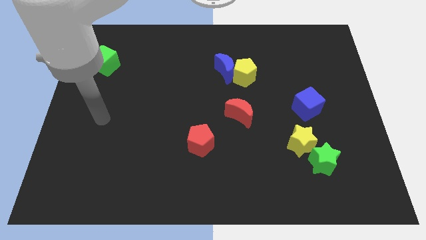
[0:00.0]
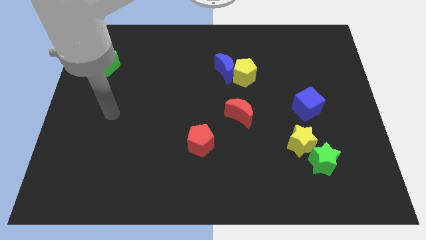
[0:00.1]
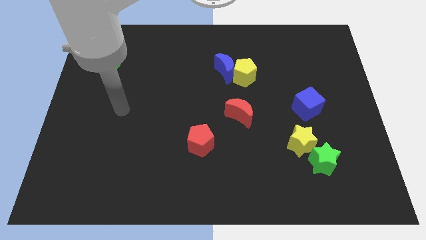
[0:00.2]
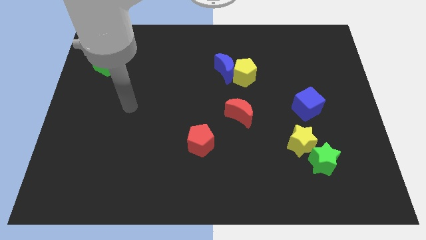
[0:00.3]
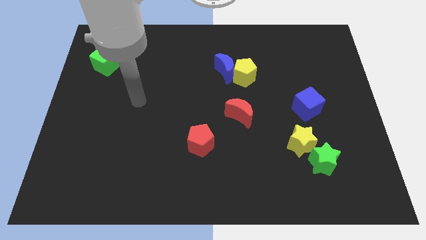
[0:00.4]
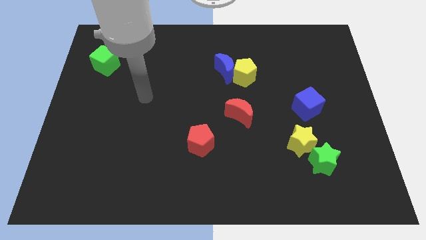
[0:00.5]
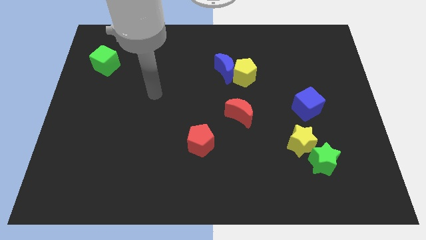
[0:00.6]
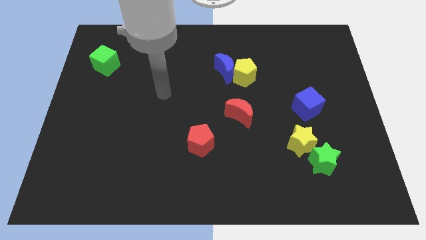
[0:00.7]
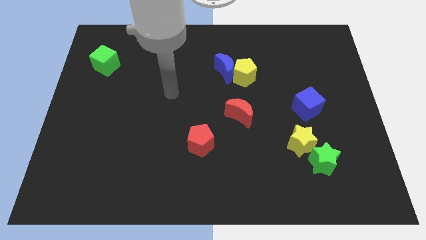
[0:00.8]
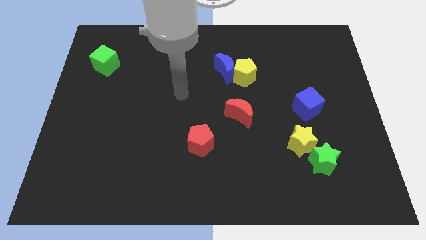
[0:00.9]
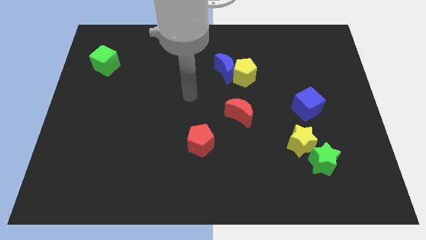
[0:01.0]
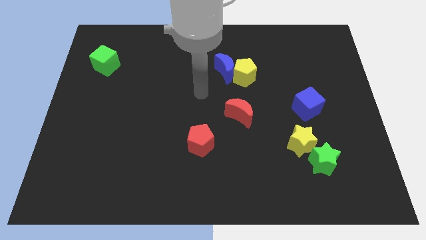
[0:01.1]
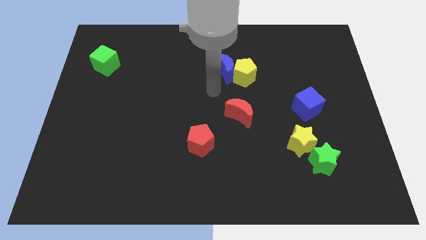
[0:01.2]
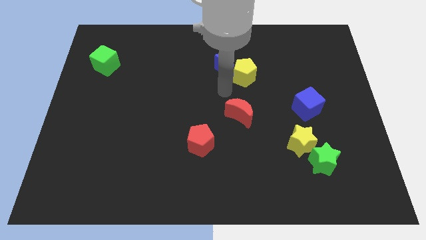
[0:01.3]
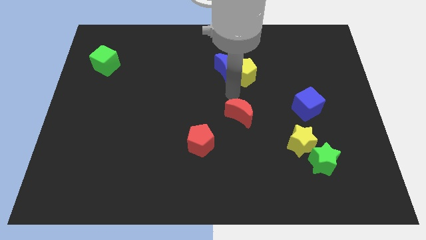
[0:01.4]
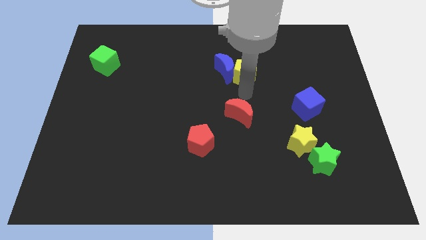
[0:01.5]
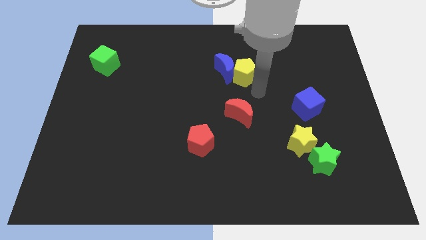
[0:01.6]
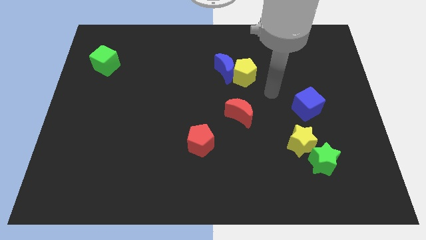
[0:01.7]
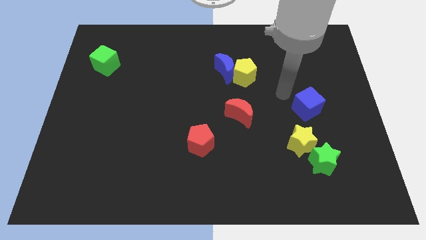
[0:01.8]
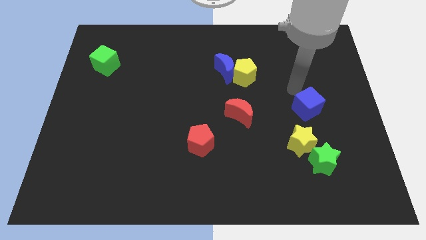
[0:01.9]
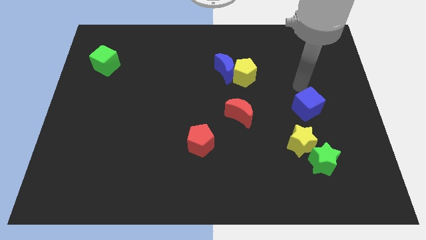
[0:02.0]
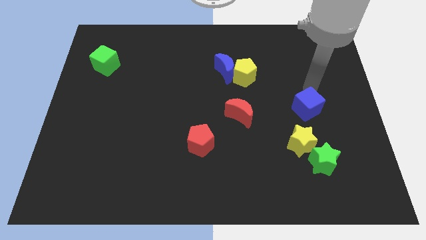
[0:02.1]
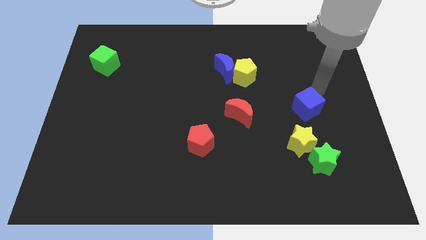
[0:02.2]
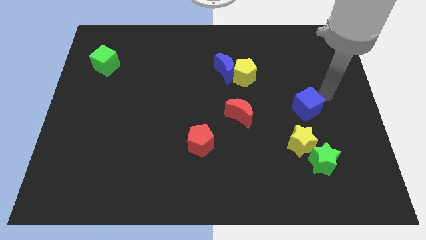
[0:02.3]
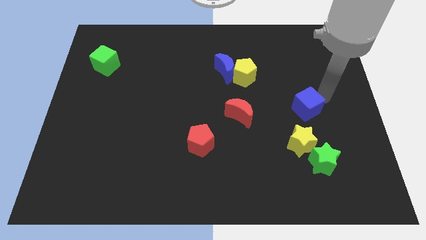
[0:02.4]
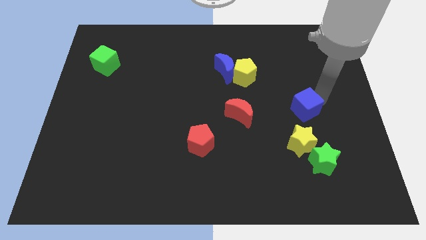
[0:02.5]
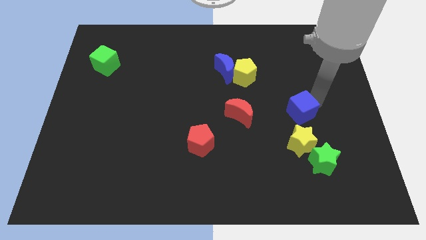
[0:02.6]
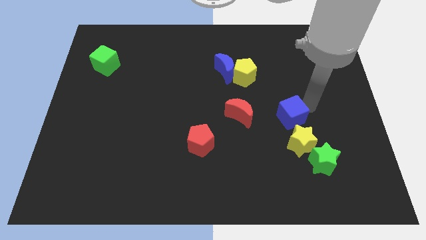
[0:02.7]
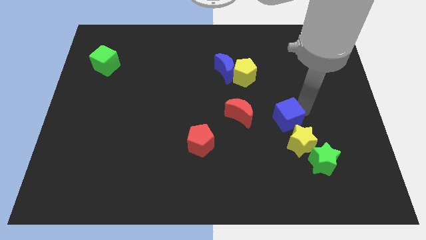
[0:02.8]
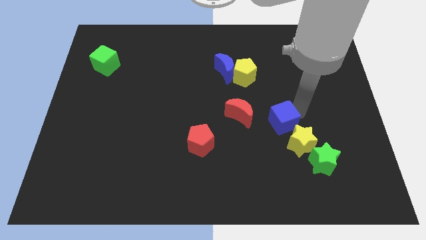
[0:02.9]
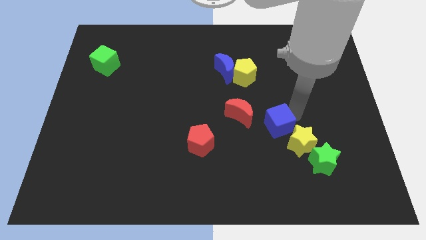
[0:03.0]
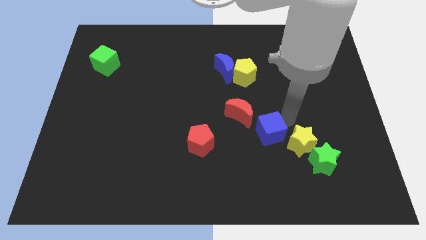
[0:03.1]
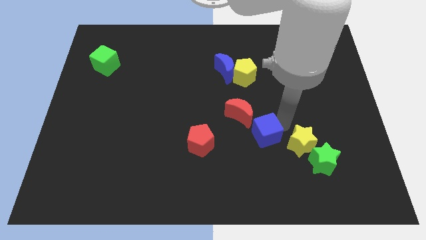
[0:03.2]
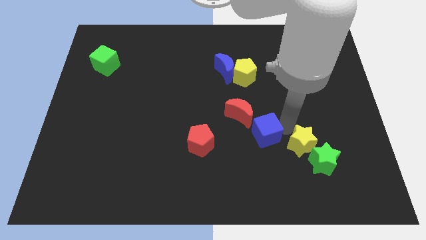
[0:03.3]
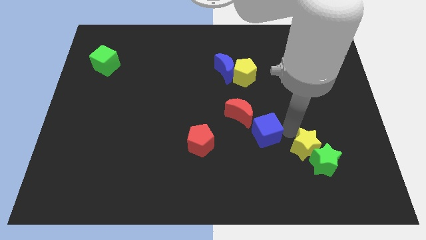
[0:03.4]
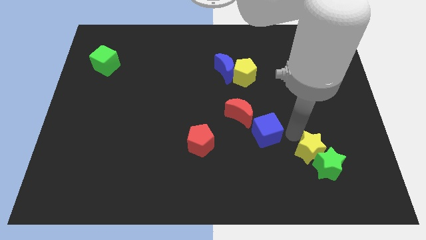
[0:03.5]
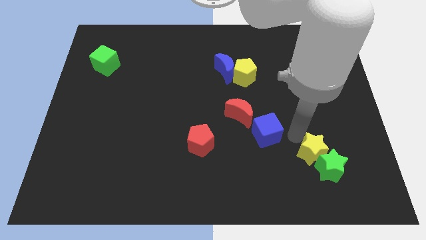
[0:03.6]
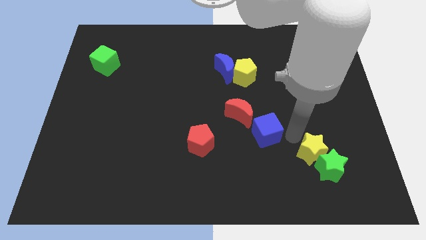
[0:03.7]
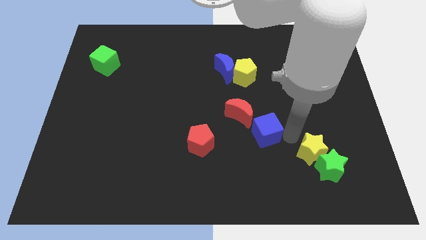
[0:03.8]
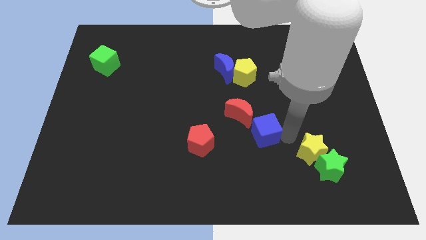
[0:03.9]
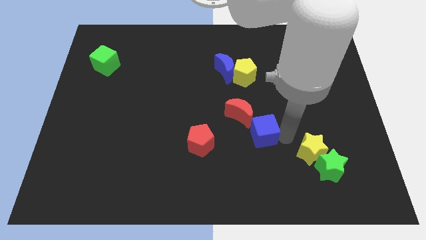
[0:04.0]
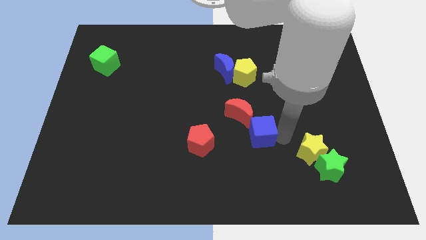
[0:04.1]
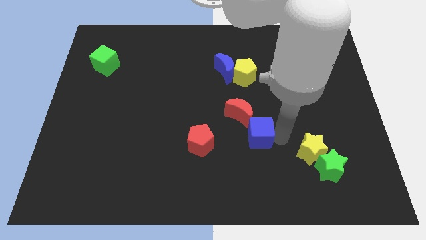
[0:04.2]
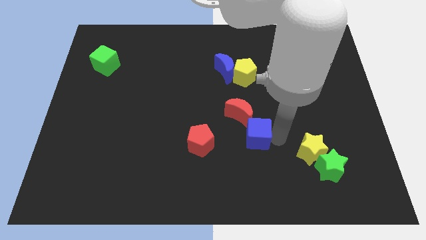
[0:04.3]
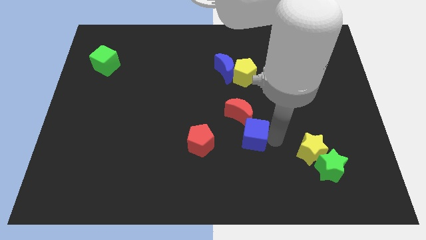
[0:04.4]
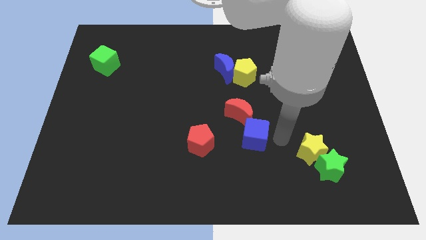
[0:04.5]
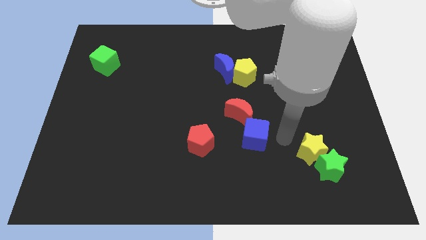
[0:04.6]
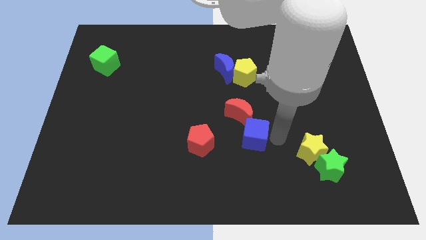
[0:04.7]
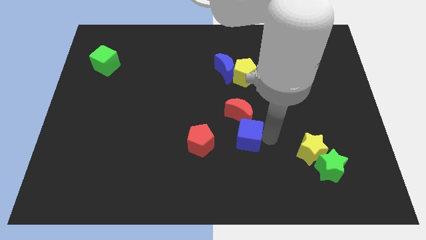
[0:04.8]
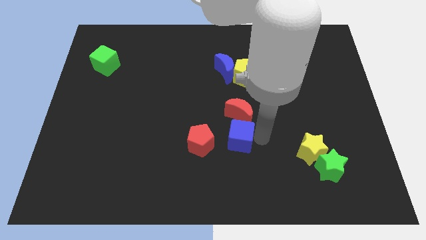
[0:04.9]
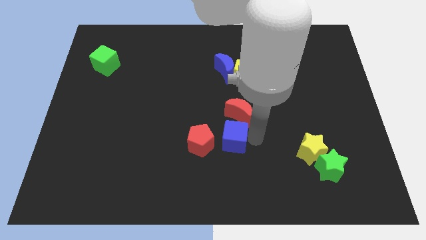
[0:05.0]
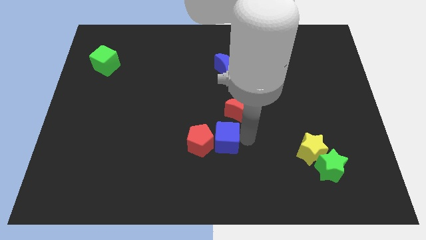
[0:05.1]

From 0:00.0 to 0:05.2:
move the blue cube to the red pentagon

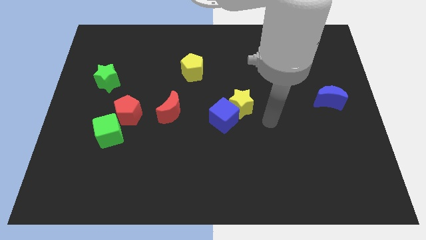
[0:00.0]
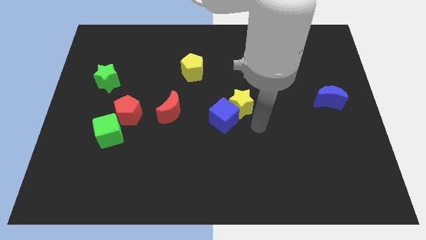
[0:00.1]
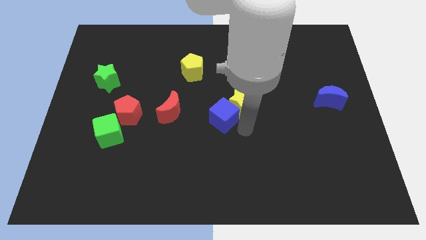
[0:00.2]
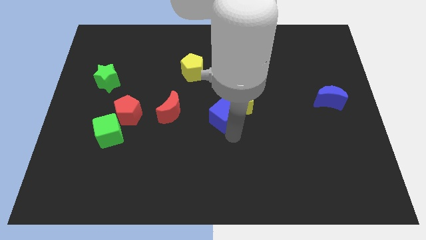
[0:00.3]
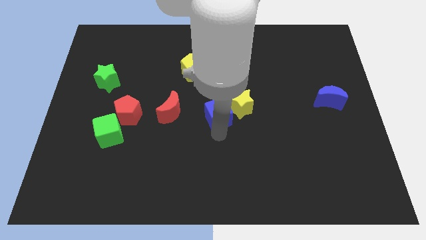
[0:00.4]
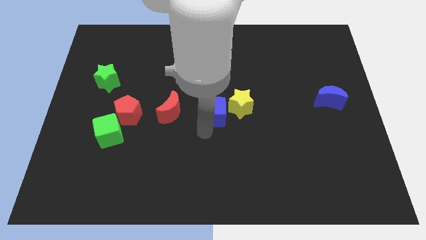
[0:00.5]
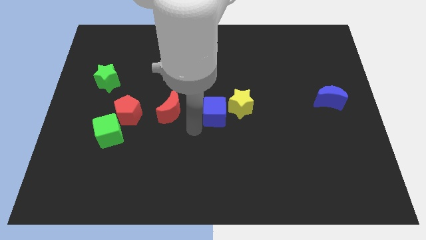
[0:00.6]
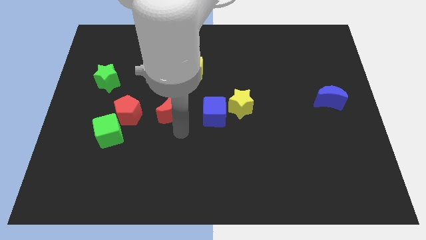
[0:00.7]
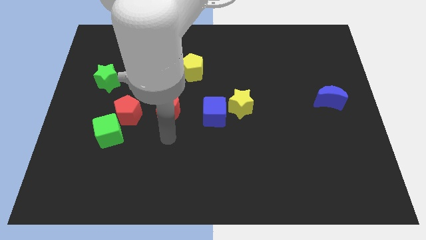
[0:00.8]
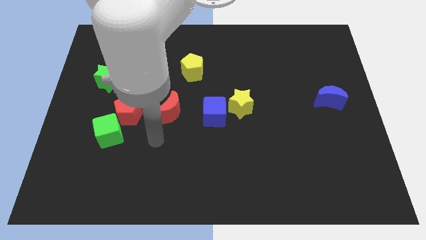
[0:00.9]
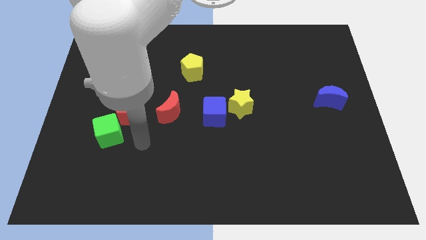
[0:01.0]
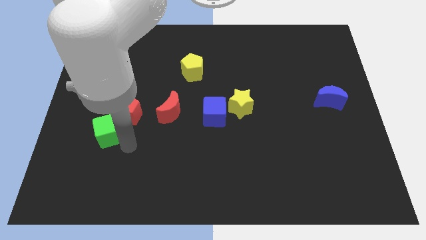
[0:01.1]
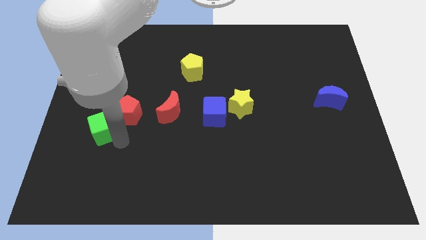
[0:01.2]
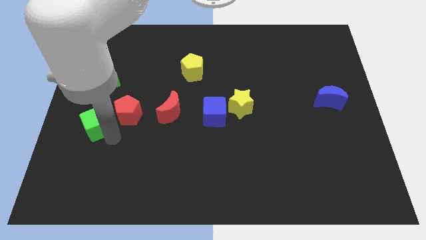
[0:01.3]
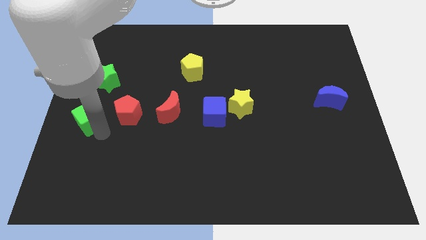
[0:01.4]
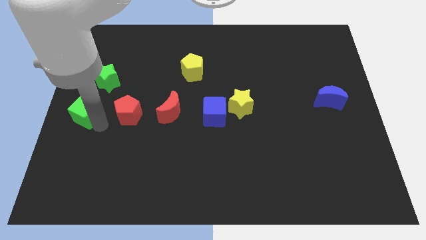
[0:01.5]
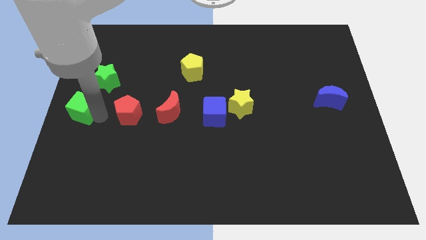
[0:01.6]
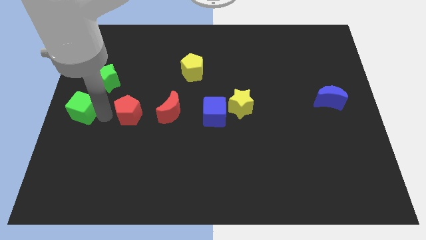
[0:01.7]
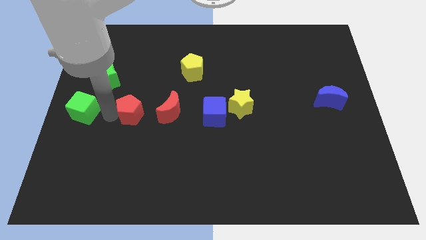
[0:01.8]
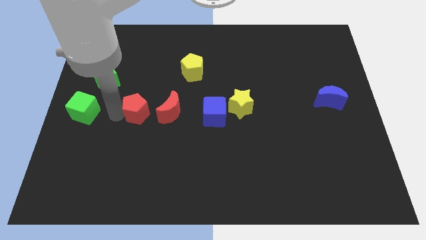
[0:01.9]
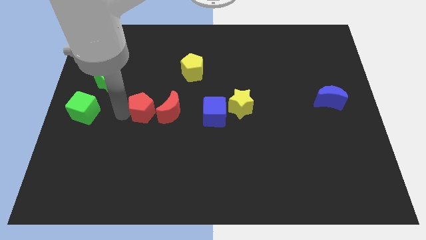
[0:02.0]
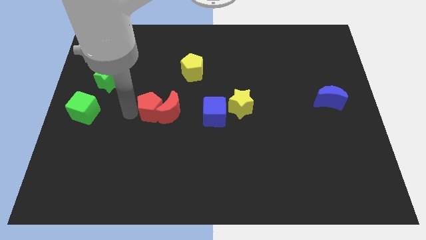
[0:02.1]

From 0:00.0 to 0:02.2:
push the red pentagon close to the red moon
